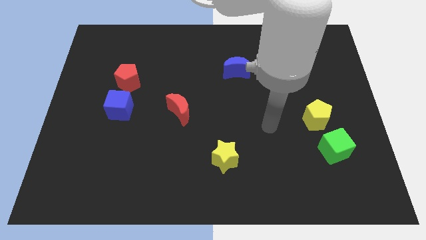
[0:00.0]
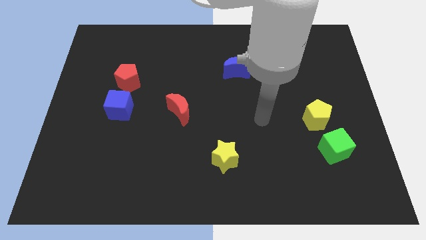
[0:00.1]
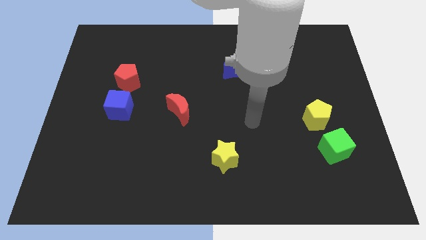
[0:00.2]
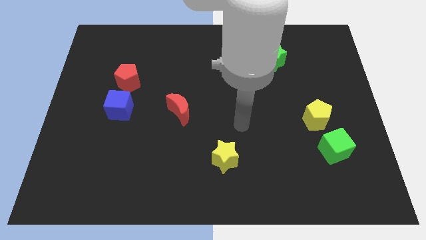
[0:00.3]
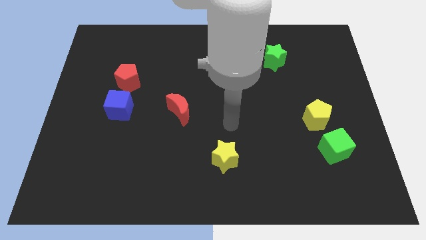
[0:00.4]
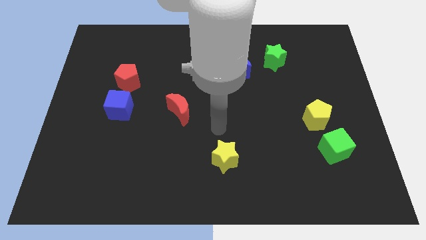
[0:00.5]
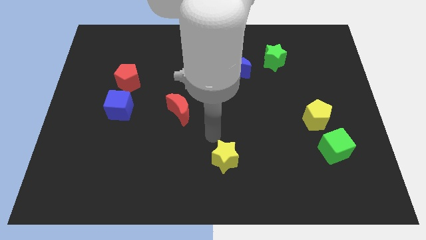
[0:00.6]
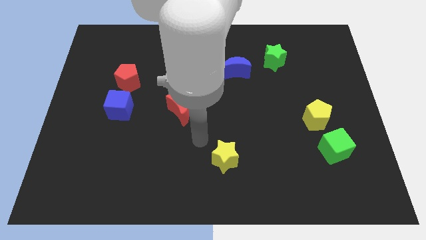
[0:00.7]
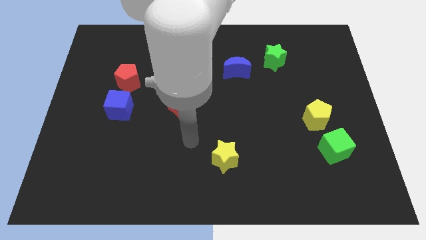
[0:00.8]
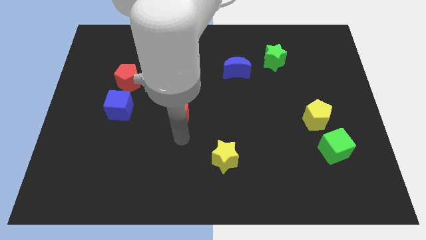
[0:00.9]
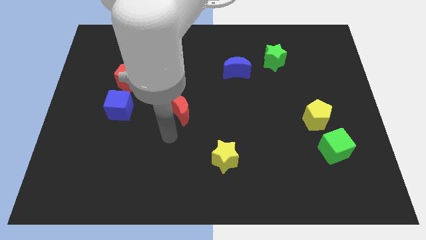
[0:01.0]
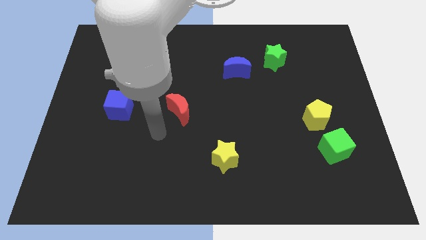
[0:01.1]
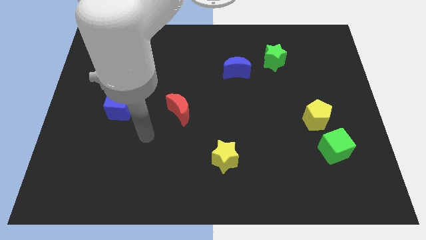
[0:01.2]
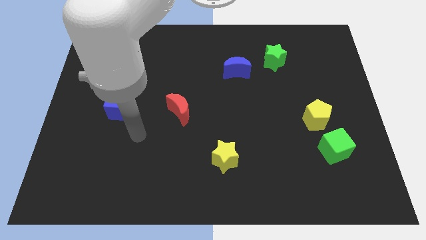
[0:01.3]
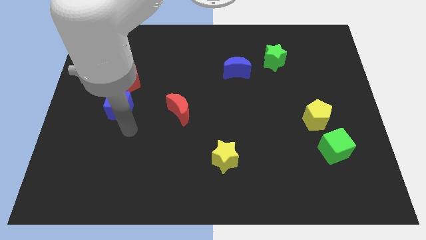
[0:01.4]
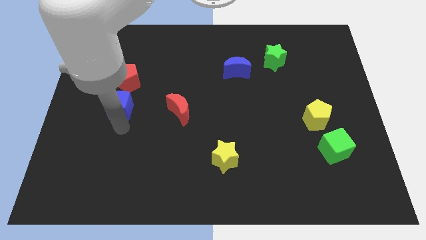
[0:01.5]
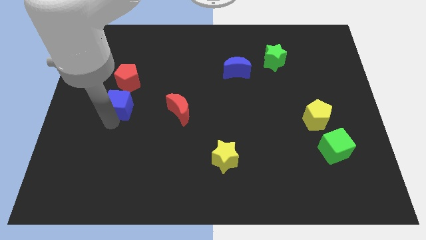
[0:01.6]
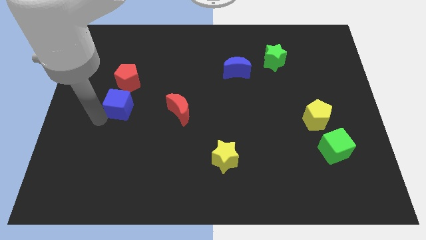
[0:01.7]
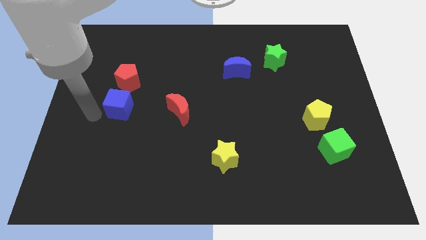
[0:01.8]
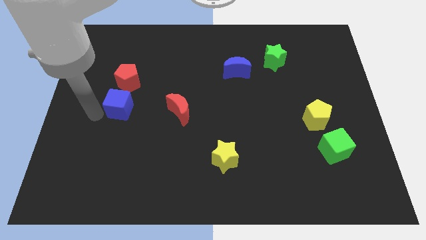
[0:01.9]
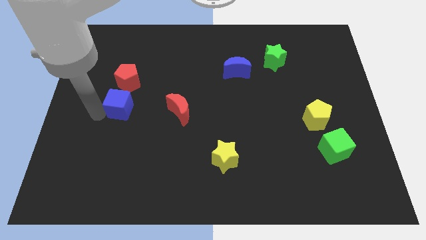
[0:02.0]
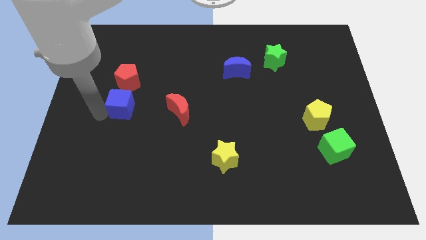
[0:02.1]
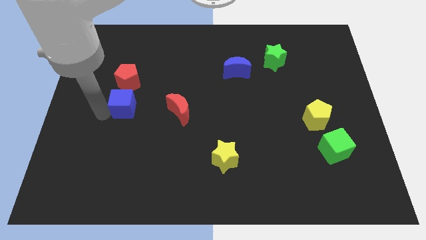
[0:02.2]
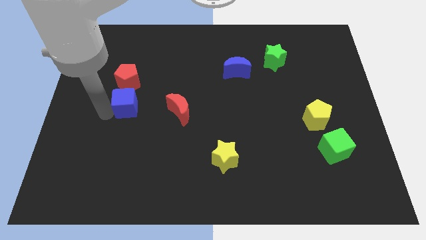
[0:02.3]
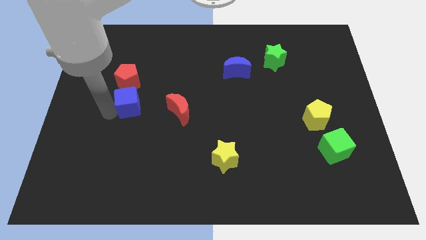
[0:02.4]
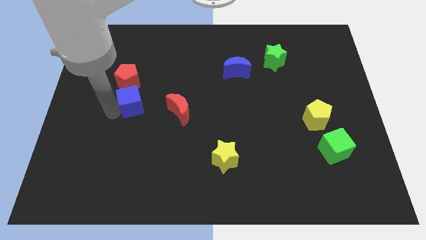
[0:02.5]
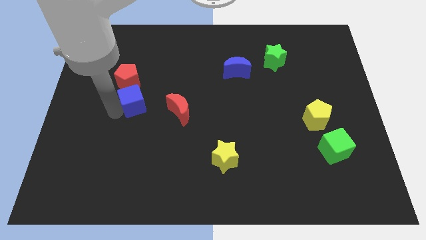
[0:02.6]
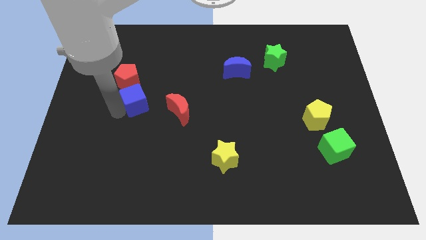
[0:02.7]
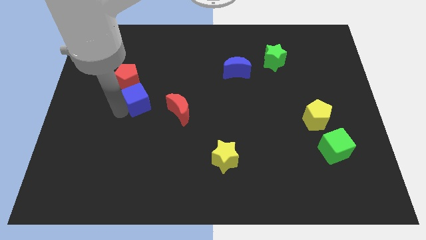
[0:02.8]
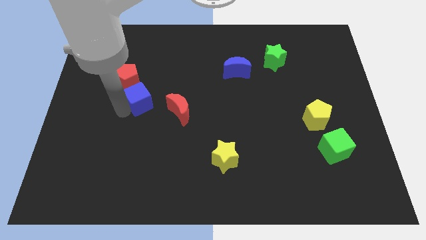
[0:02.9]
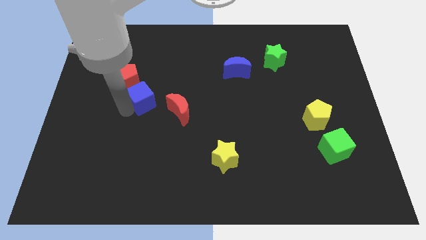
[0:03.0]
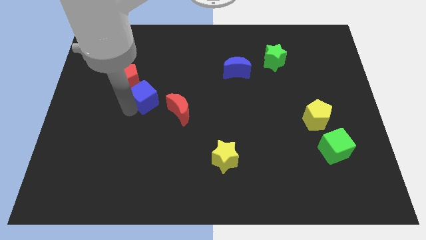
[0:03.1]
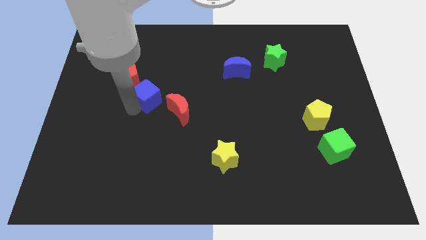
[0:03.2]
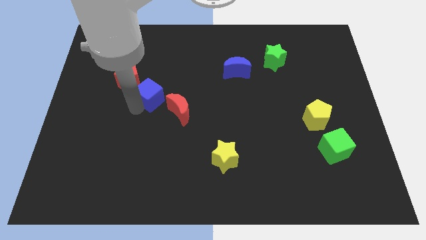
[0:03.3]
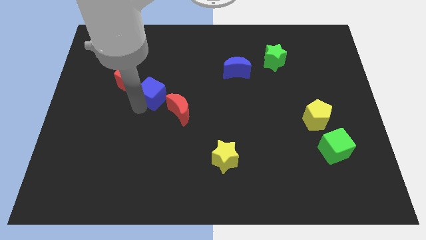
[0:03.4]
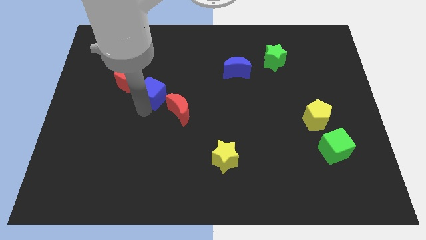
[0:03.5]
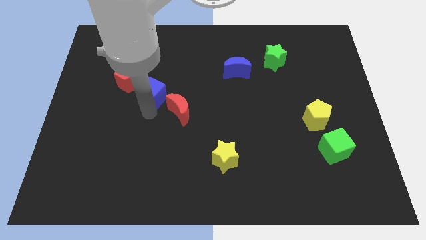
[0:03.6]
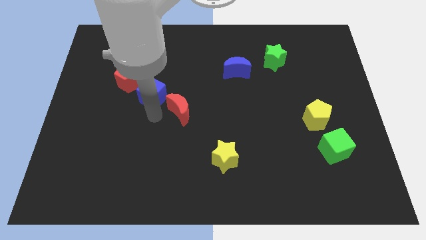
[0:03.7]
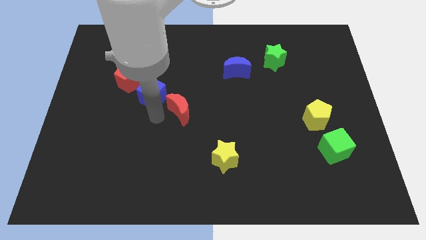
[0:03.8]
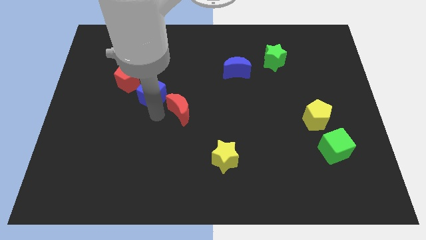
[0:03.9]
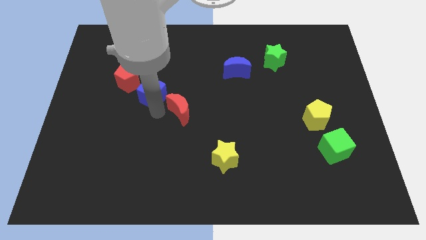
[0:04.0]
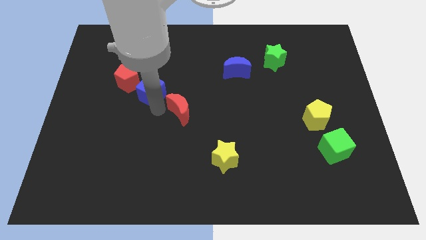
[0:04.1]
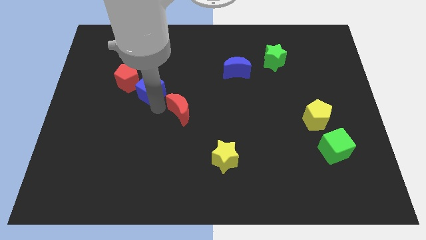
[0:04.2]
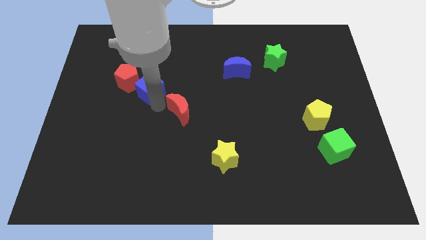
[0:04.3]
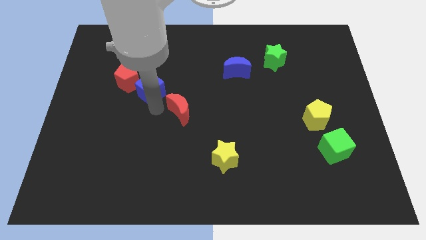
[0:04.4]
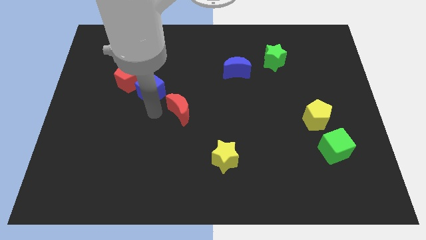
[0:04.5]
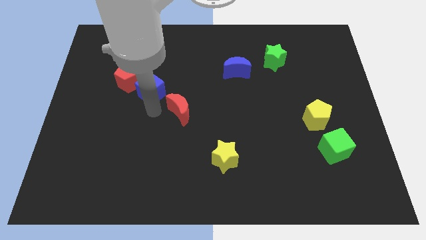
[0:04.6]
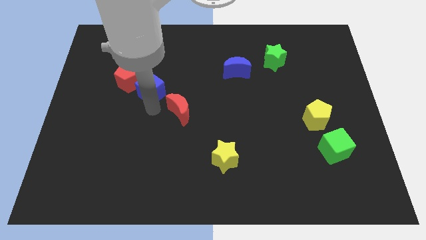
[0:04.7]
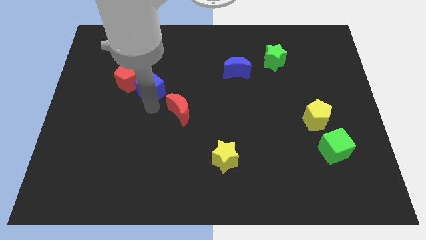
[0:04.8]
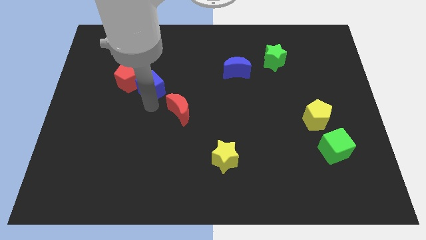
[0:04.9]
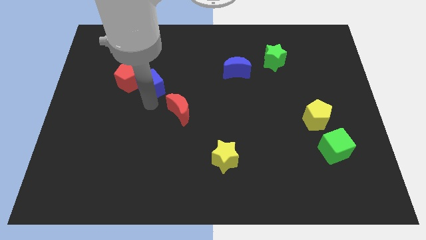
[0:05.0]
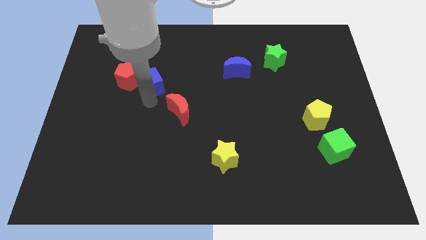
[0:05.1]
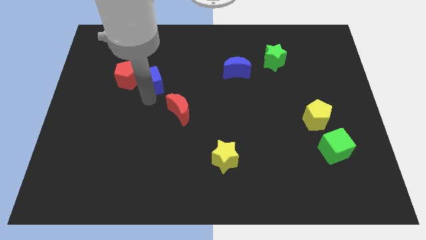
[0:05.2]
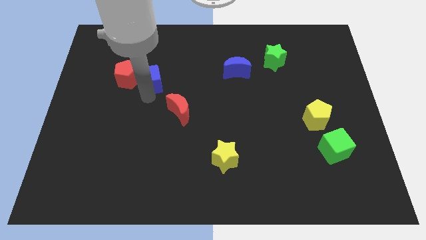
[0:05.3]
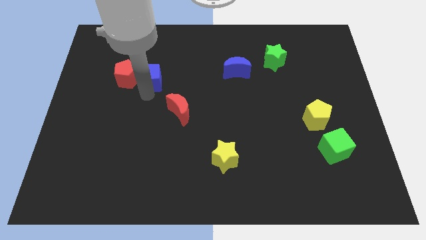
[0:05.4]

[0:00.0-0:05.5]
put the blue cube diagonally up and to the right of the red pentagon

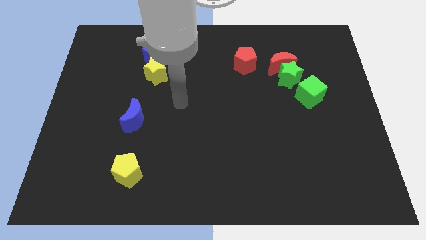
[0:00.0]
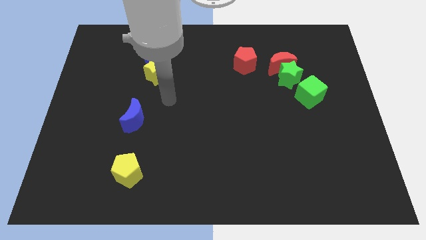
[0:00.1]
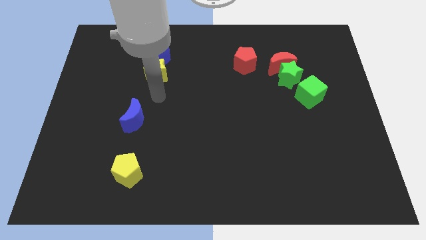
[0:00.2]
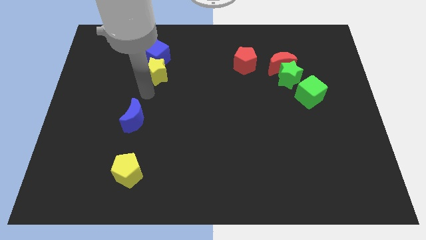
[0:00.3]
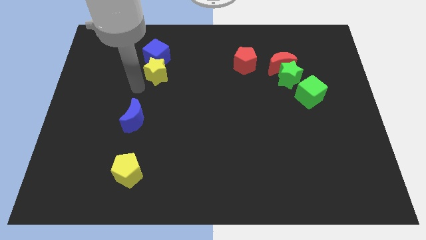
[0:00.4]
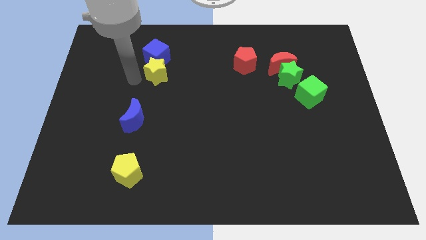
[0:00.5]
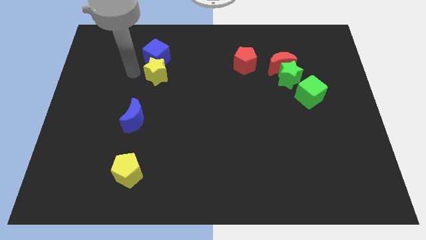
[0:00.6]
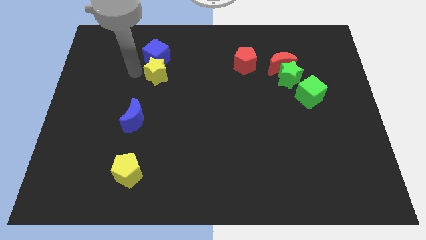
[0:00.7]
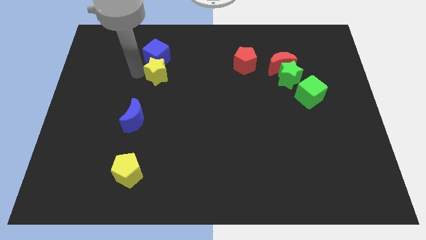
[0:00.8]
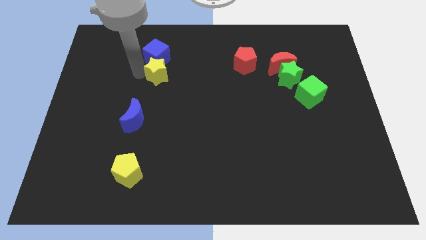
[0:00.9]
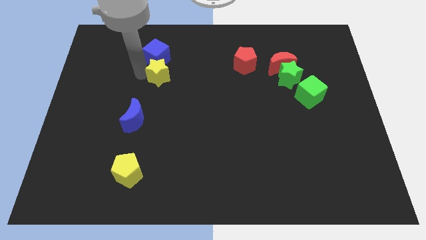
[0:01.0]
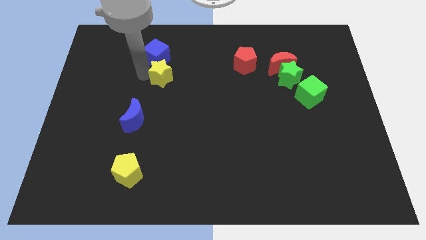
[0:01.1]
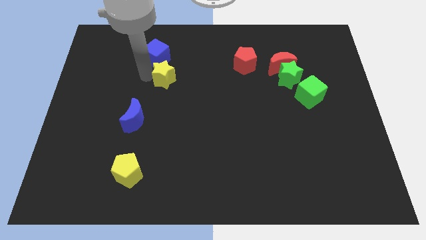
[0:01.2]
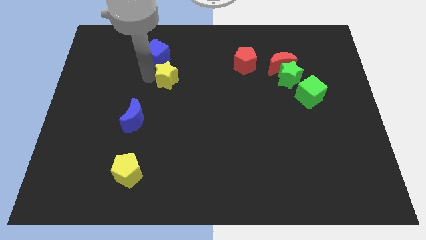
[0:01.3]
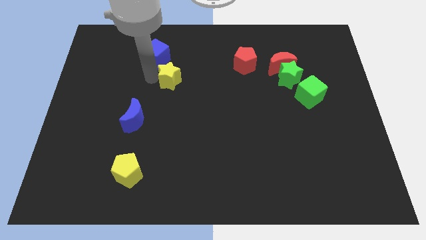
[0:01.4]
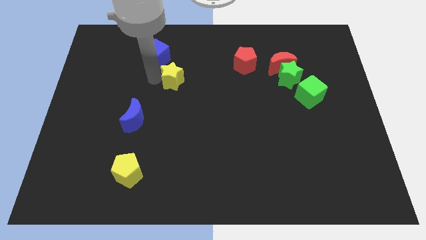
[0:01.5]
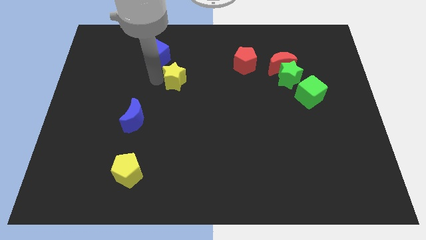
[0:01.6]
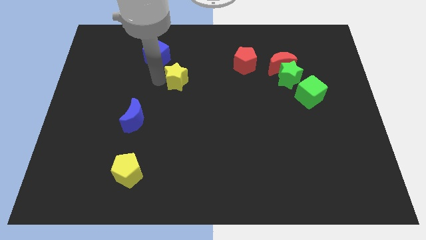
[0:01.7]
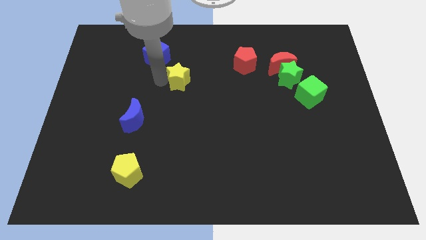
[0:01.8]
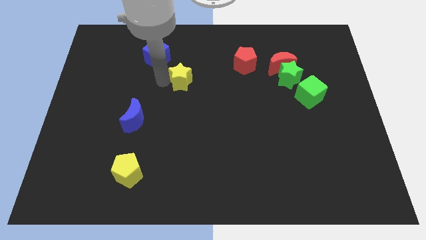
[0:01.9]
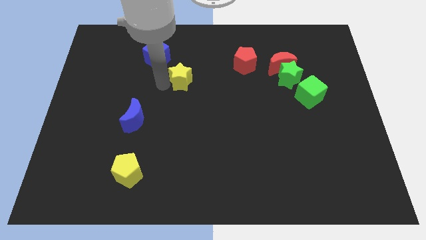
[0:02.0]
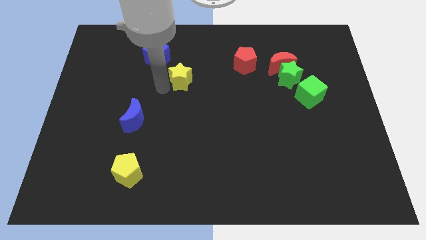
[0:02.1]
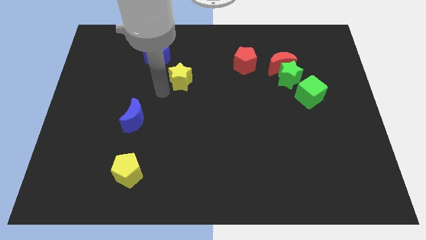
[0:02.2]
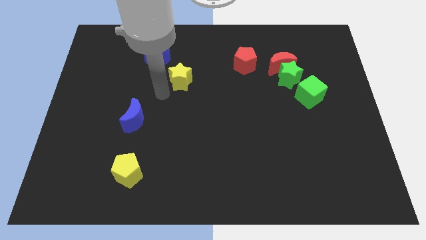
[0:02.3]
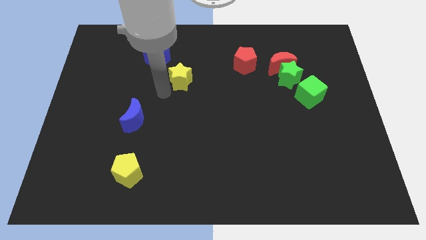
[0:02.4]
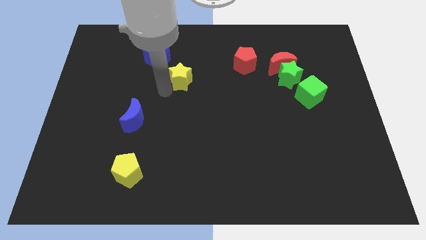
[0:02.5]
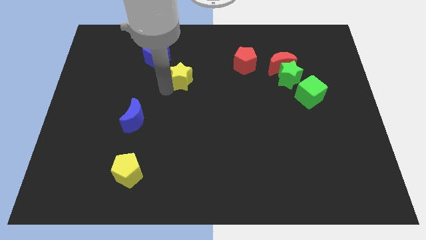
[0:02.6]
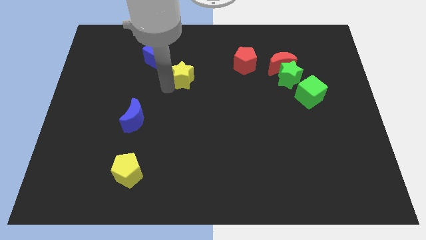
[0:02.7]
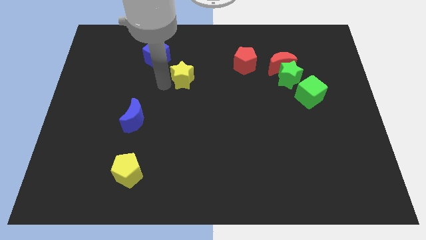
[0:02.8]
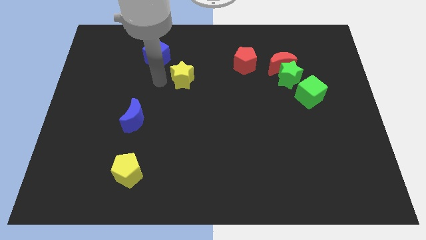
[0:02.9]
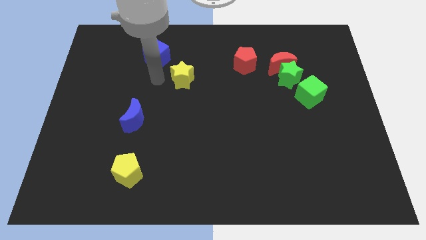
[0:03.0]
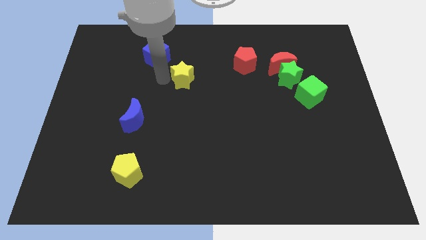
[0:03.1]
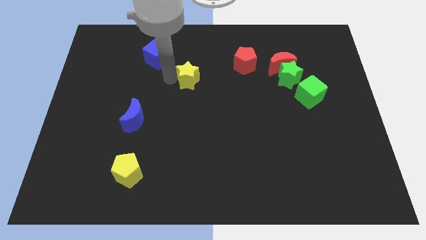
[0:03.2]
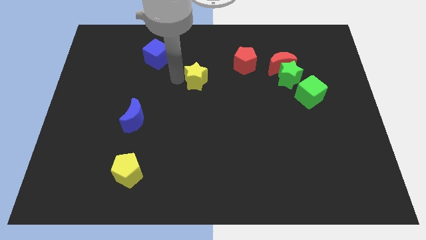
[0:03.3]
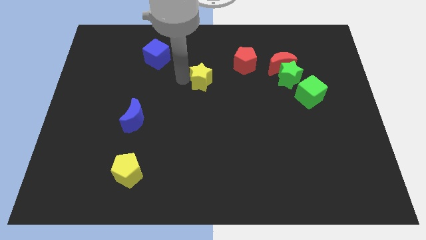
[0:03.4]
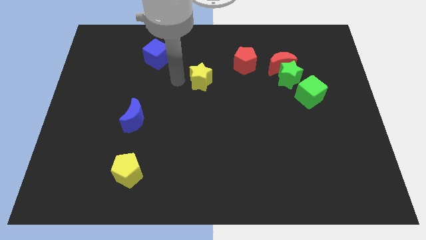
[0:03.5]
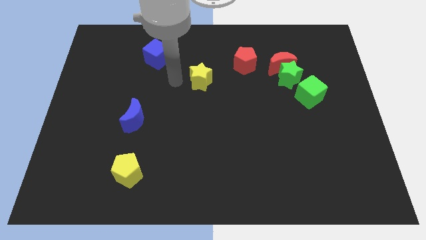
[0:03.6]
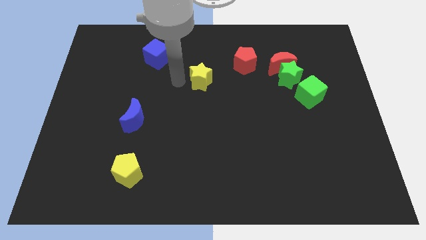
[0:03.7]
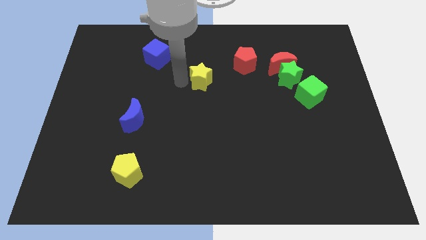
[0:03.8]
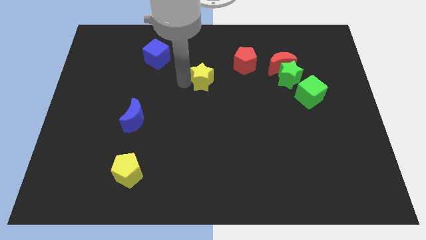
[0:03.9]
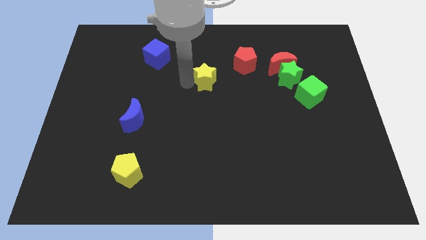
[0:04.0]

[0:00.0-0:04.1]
push the yellow star to the bottom left of the red pentagon
